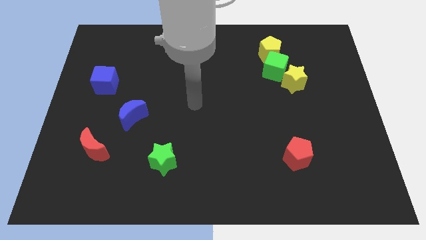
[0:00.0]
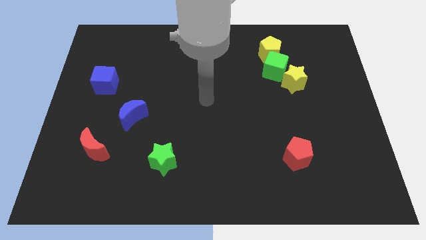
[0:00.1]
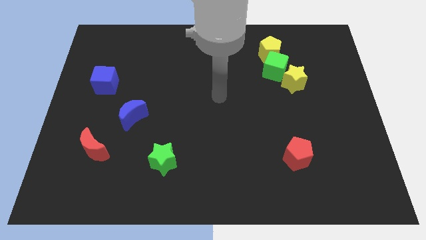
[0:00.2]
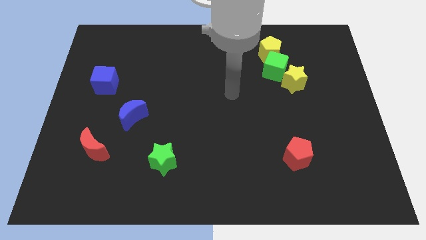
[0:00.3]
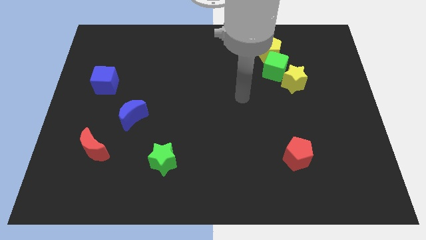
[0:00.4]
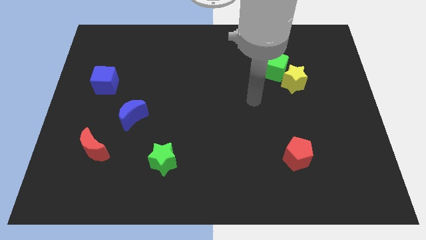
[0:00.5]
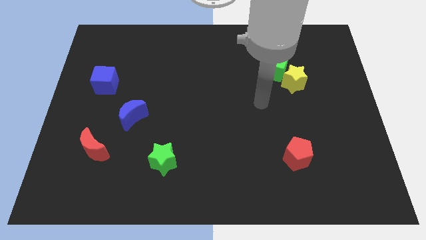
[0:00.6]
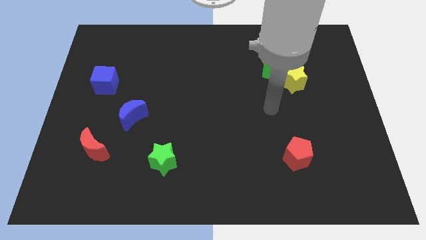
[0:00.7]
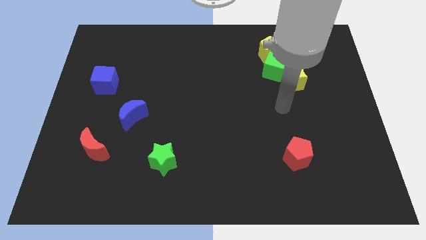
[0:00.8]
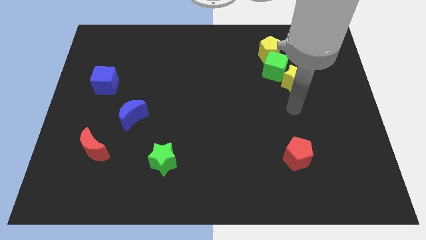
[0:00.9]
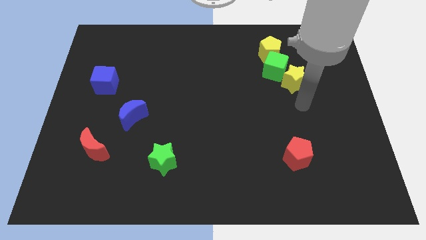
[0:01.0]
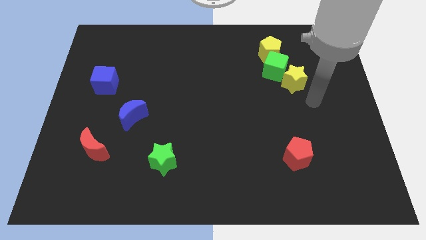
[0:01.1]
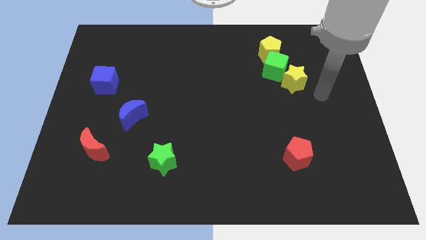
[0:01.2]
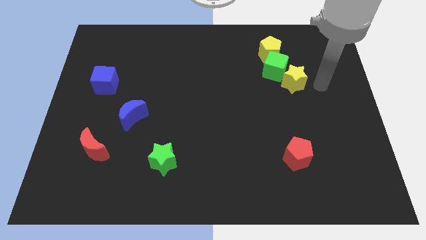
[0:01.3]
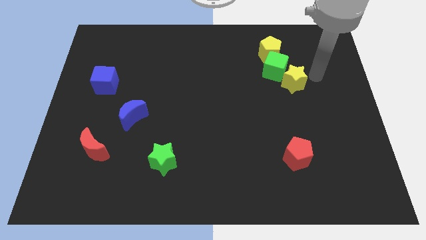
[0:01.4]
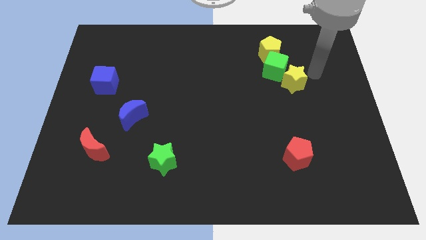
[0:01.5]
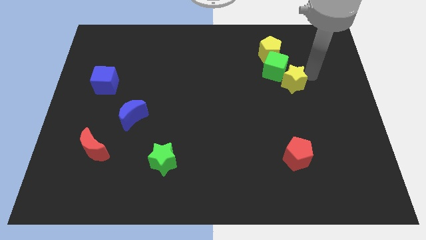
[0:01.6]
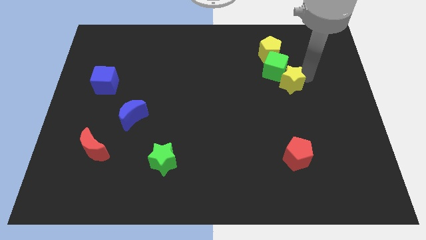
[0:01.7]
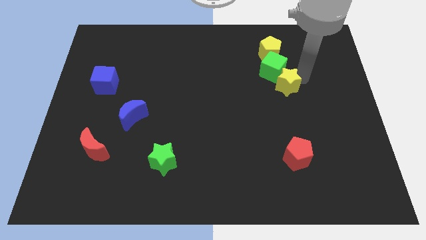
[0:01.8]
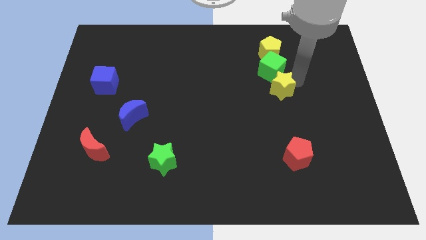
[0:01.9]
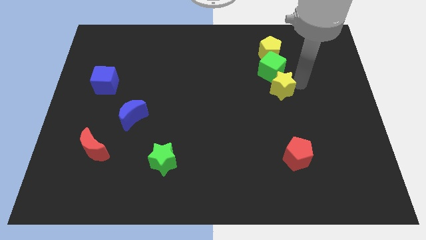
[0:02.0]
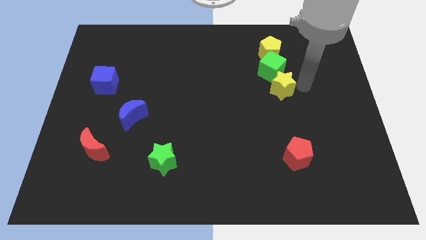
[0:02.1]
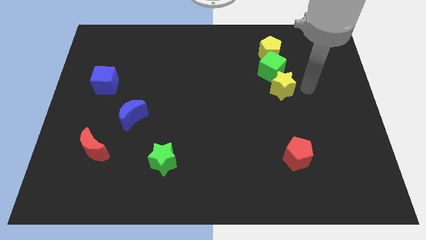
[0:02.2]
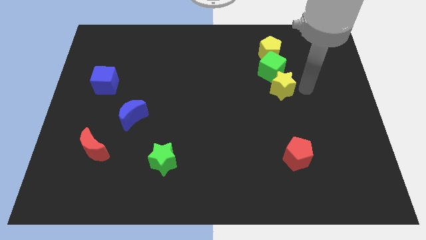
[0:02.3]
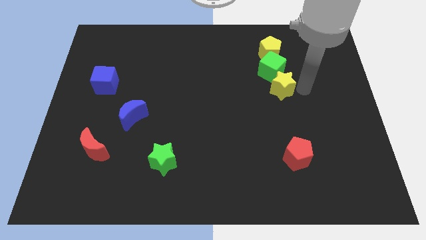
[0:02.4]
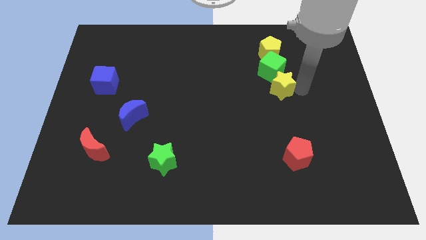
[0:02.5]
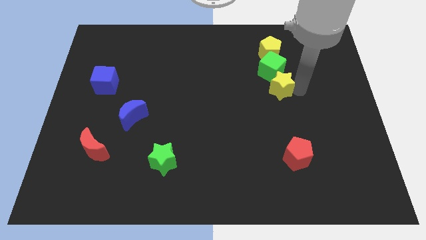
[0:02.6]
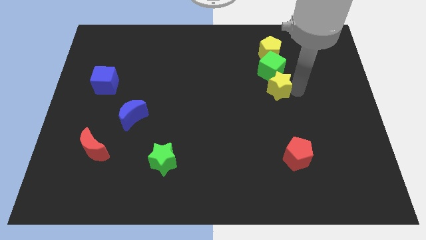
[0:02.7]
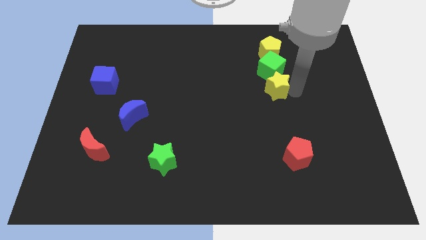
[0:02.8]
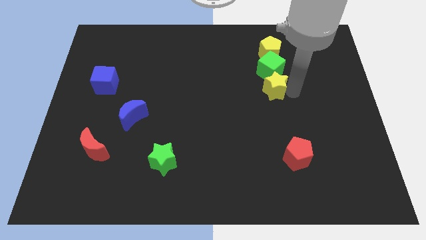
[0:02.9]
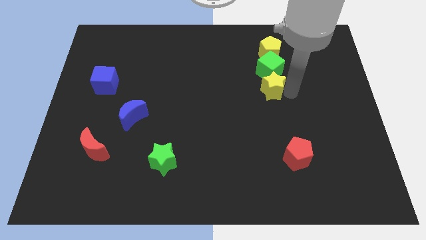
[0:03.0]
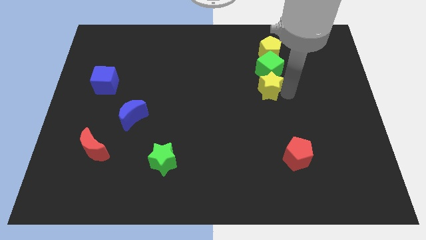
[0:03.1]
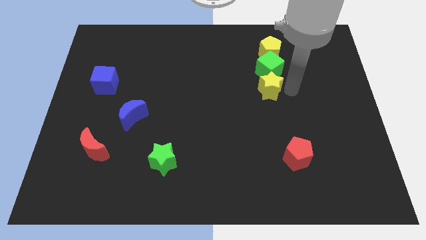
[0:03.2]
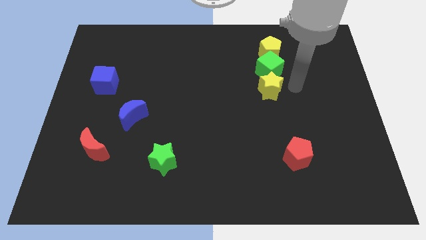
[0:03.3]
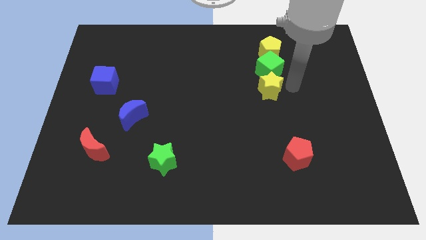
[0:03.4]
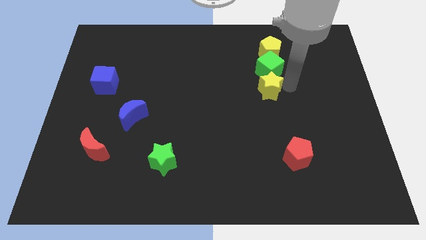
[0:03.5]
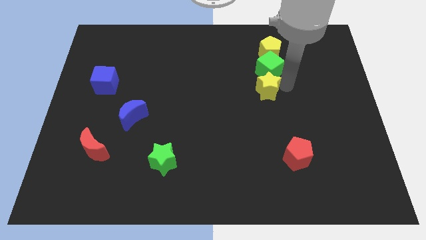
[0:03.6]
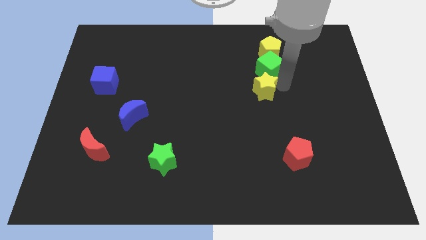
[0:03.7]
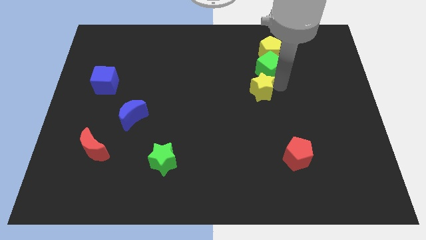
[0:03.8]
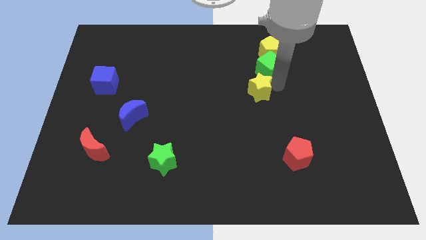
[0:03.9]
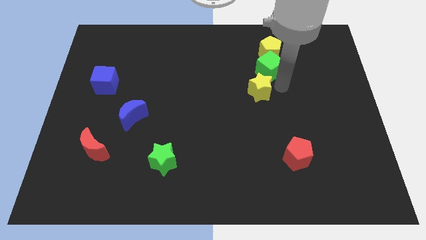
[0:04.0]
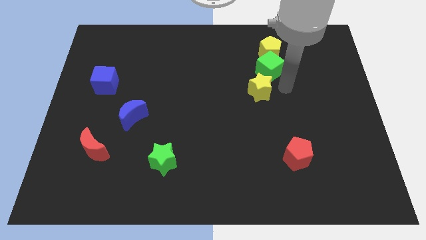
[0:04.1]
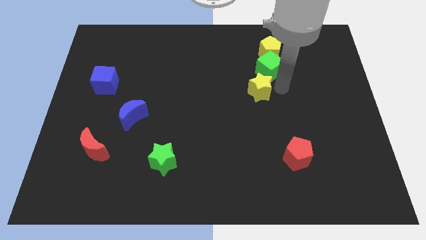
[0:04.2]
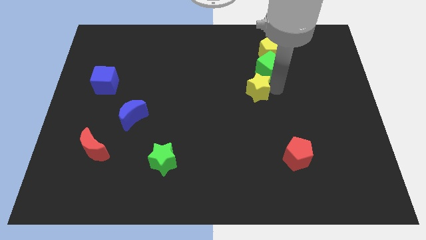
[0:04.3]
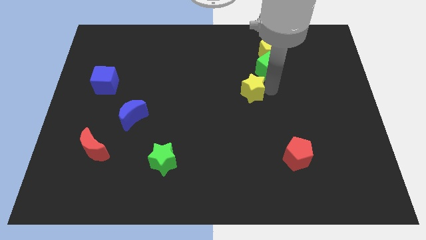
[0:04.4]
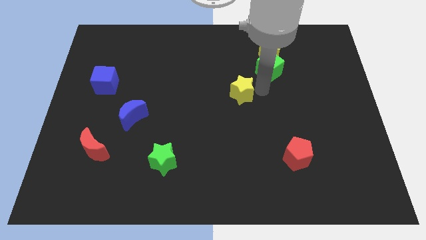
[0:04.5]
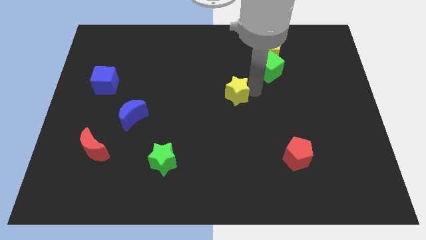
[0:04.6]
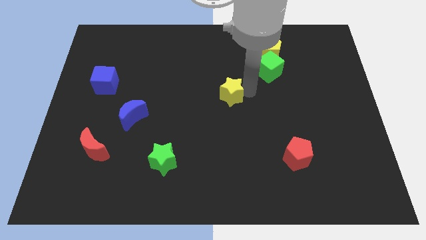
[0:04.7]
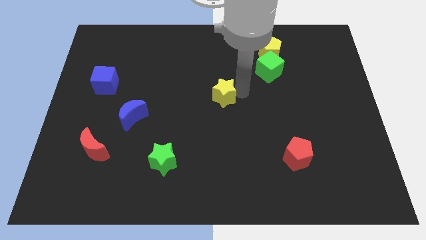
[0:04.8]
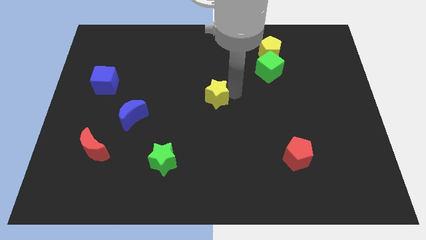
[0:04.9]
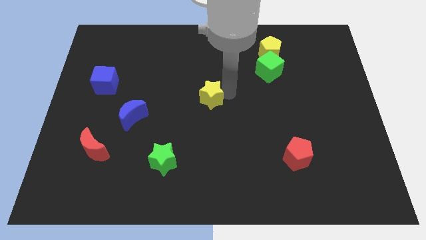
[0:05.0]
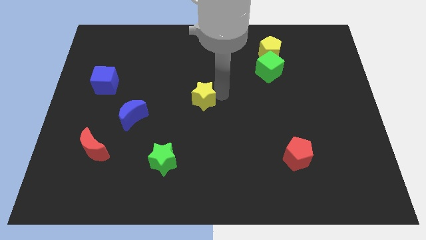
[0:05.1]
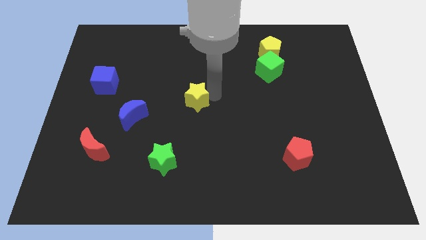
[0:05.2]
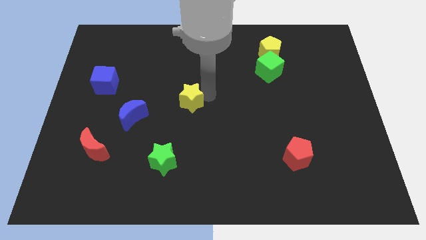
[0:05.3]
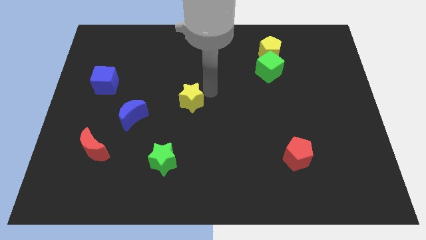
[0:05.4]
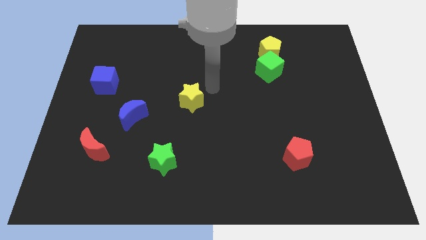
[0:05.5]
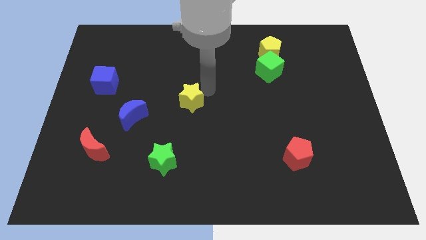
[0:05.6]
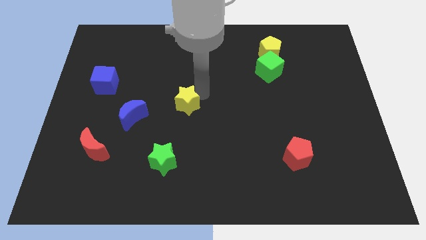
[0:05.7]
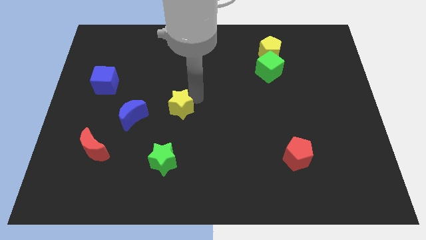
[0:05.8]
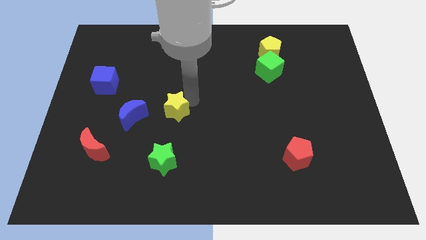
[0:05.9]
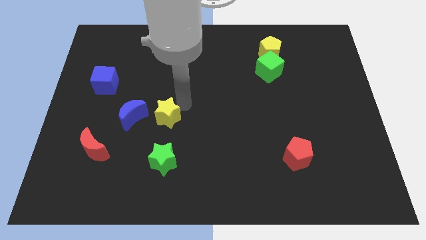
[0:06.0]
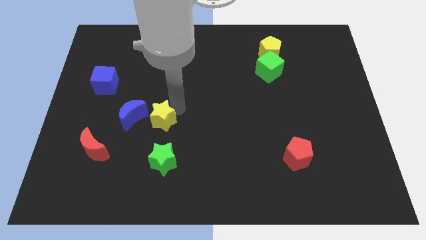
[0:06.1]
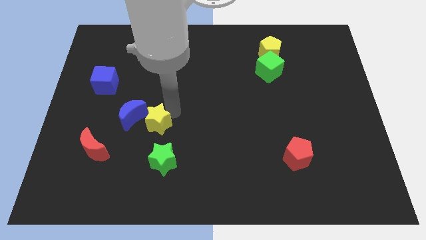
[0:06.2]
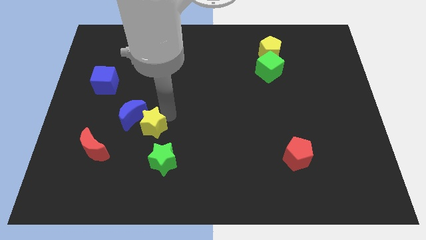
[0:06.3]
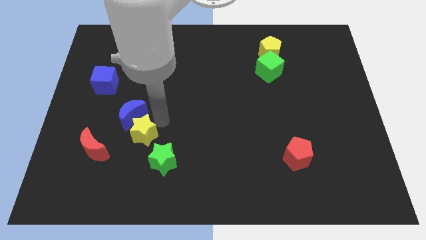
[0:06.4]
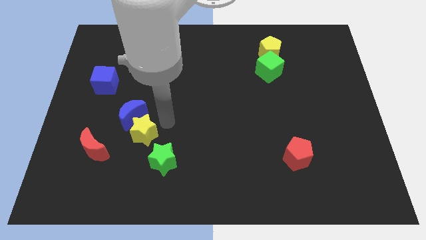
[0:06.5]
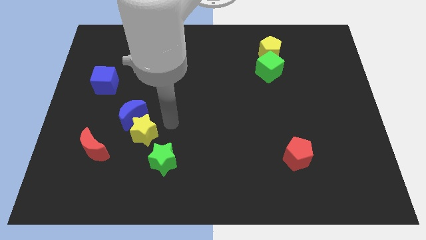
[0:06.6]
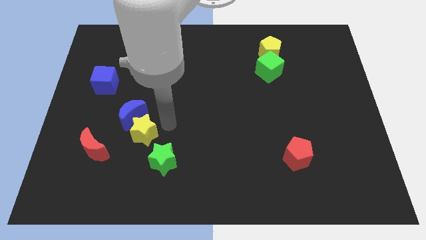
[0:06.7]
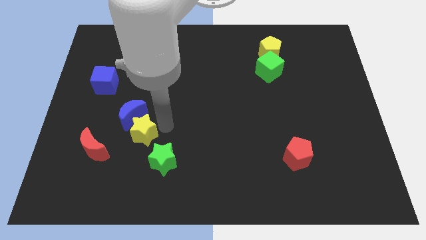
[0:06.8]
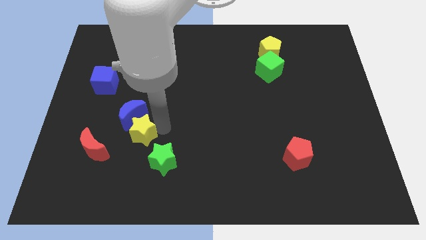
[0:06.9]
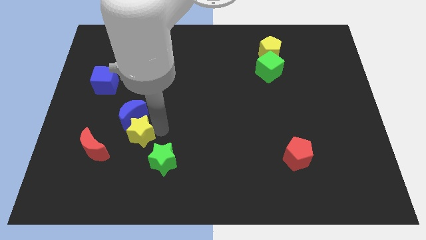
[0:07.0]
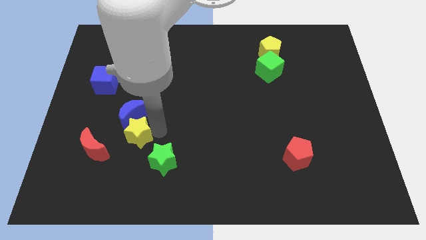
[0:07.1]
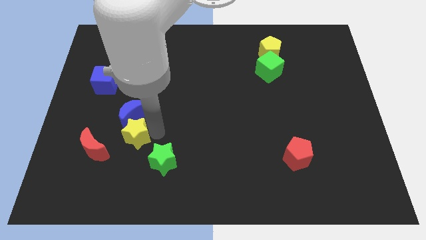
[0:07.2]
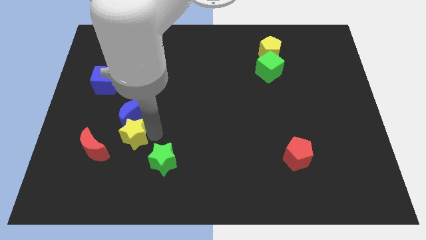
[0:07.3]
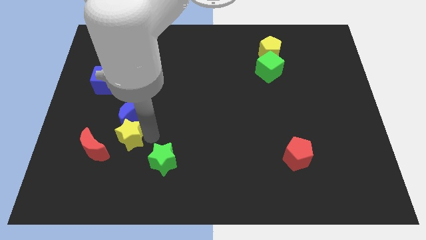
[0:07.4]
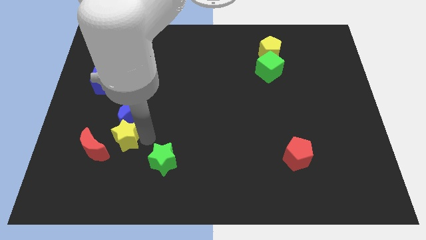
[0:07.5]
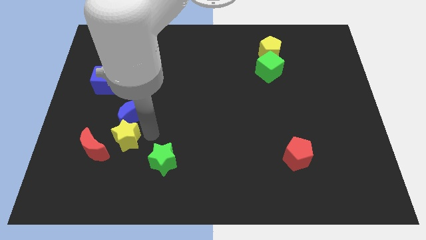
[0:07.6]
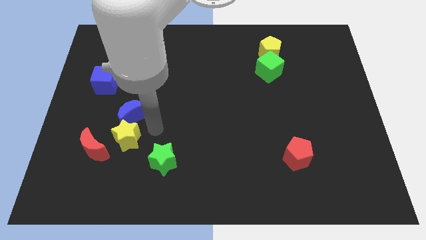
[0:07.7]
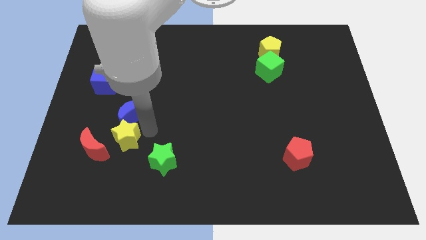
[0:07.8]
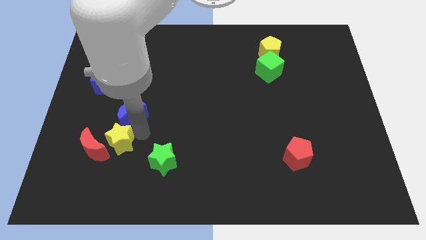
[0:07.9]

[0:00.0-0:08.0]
push the yellow star close to the red moon
